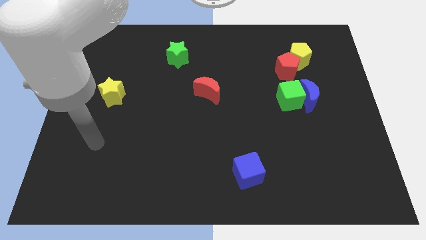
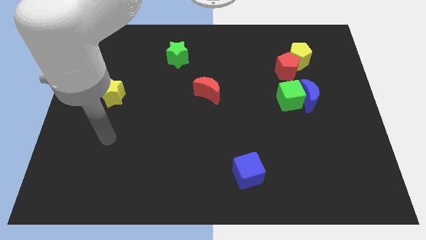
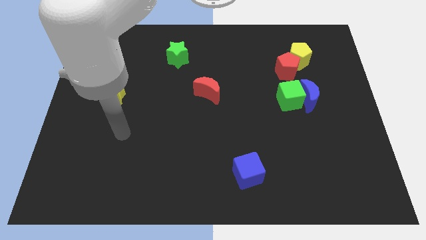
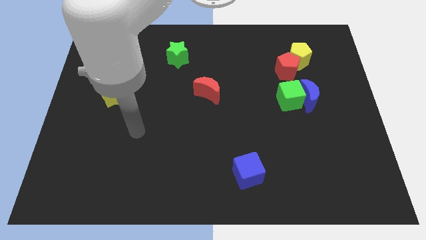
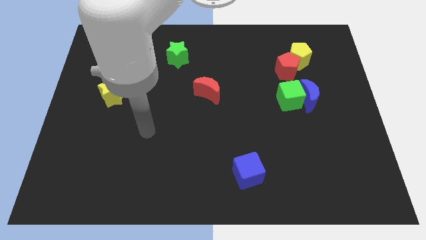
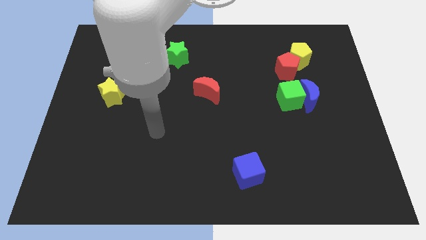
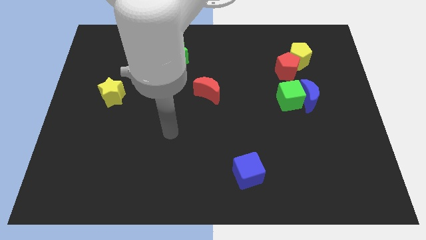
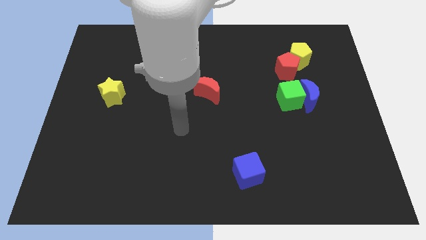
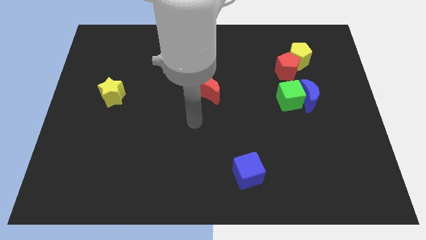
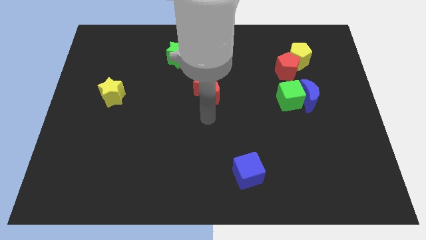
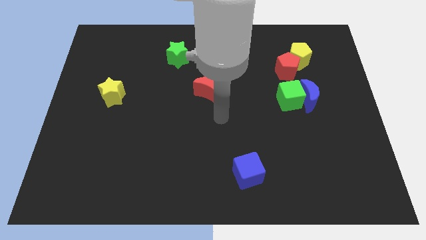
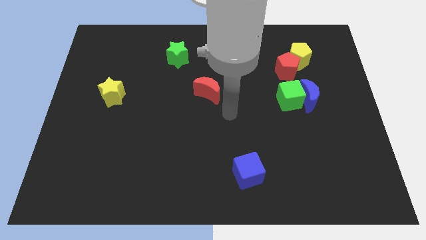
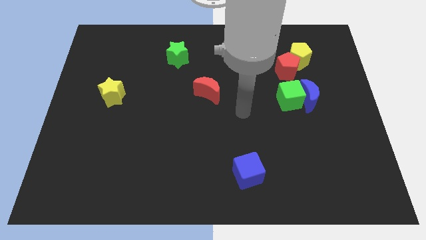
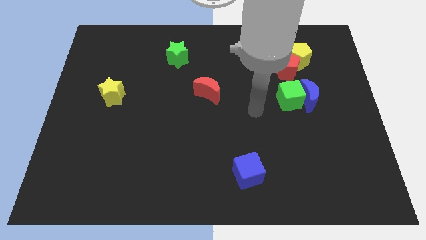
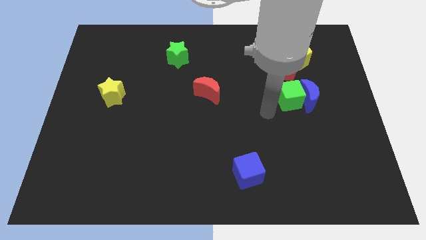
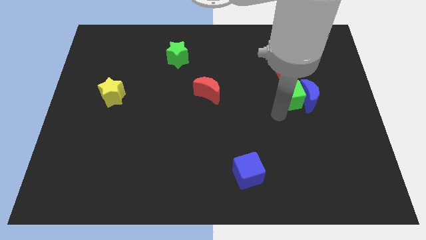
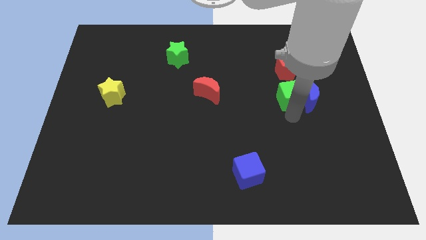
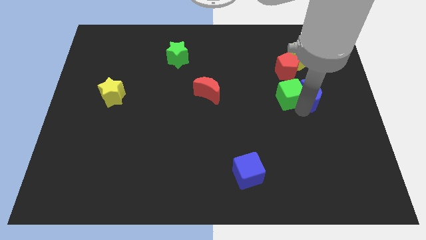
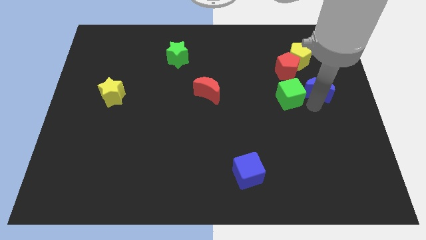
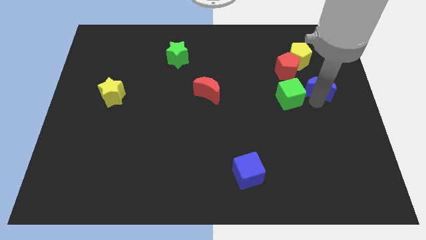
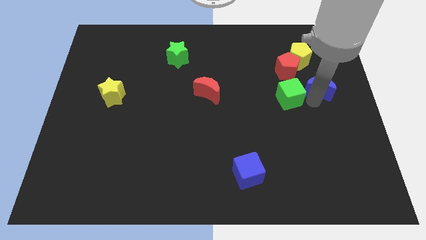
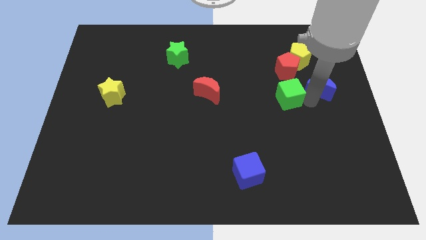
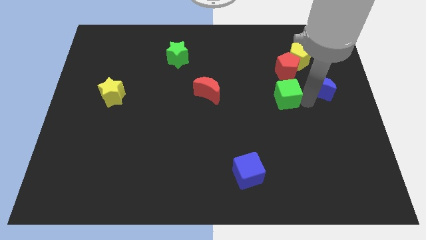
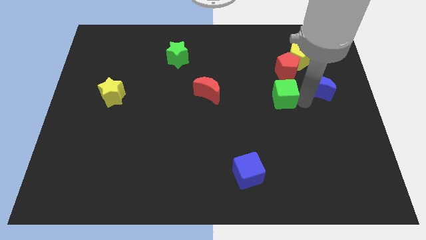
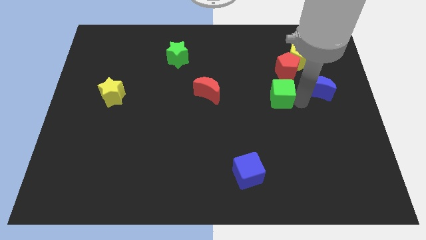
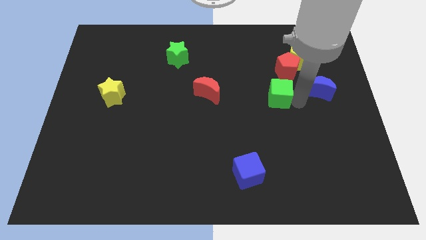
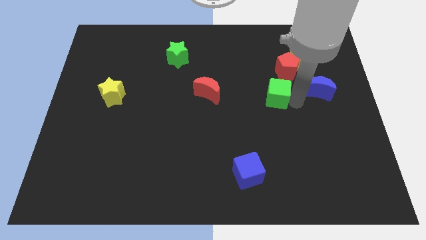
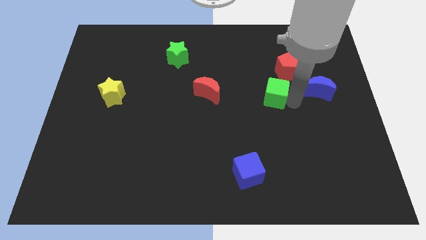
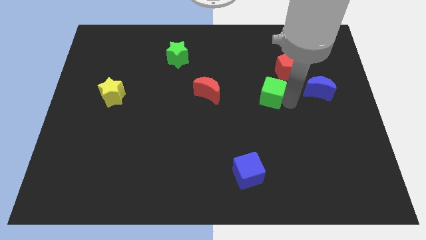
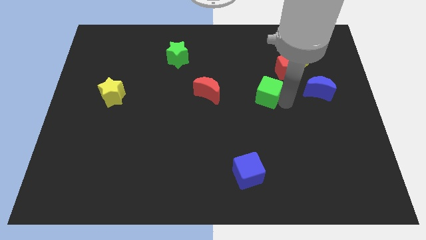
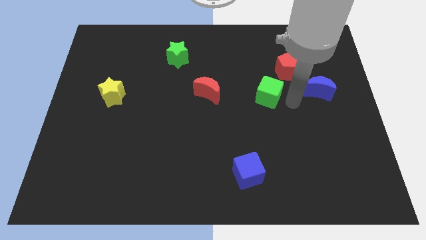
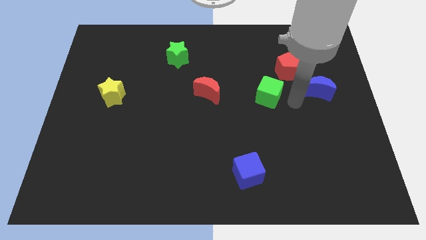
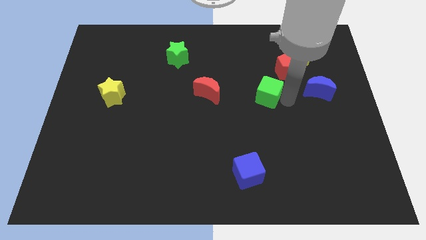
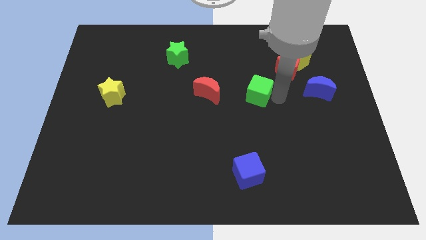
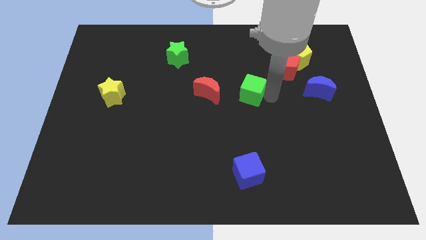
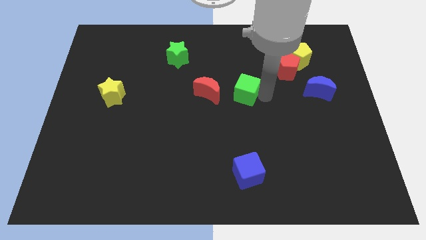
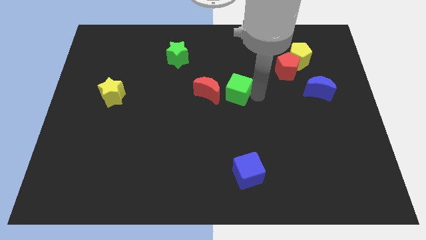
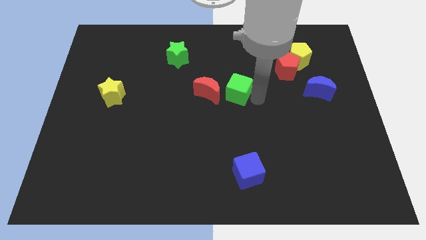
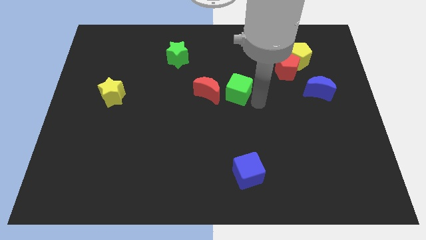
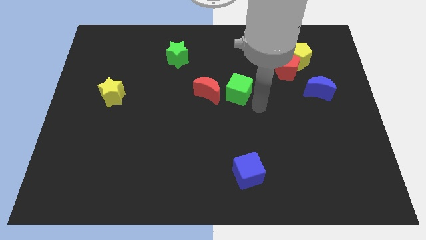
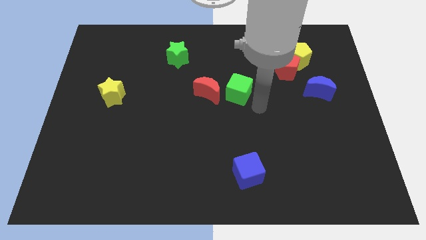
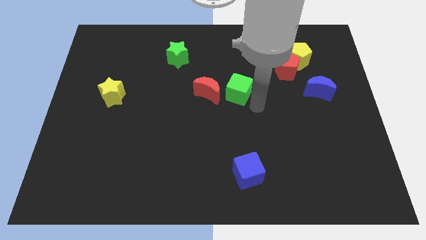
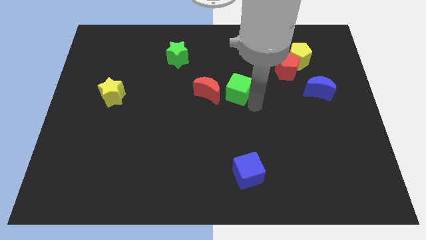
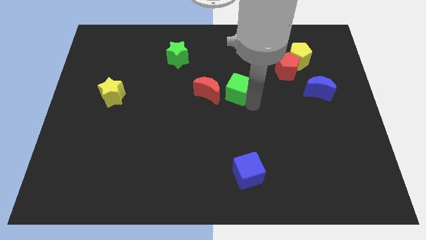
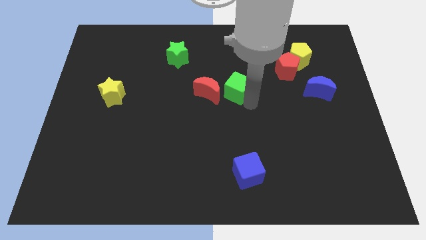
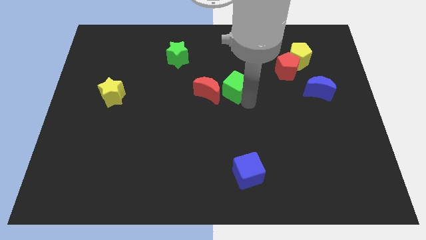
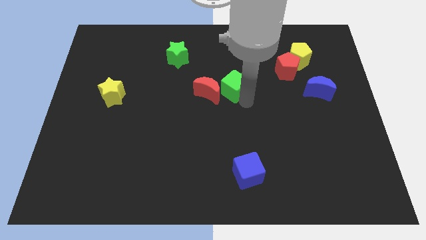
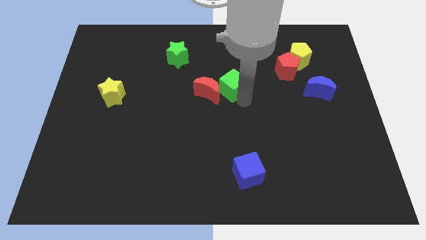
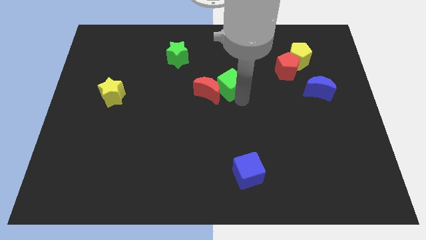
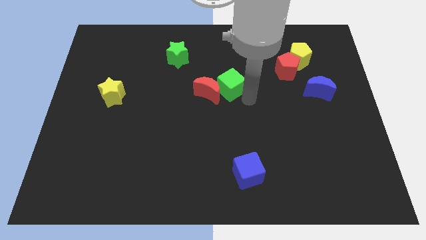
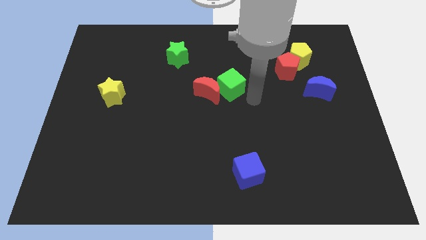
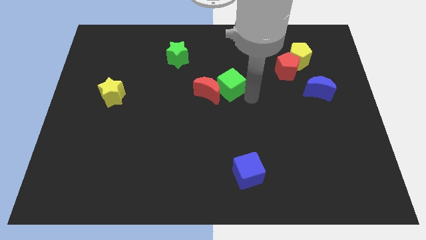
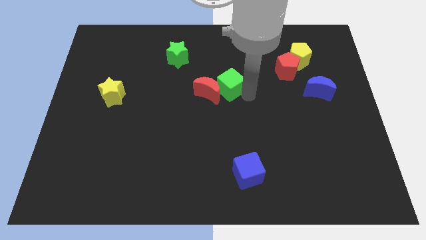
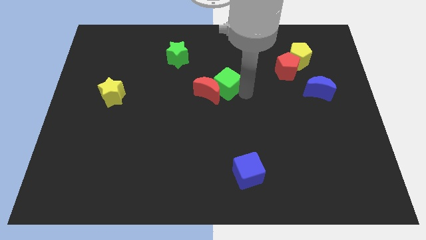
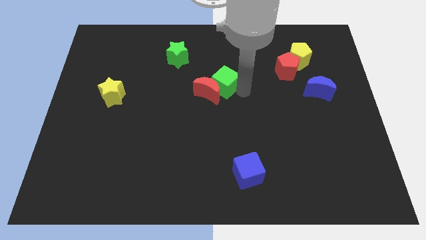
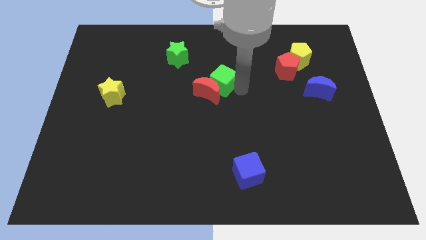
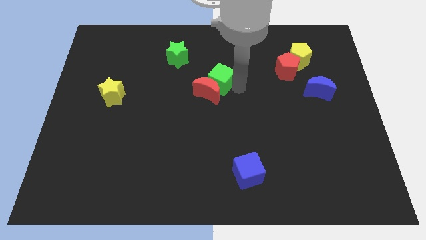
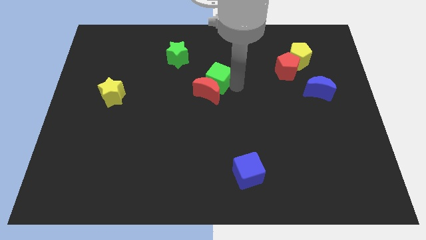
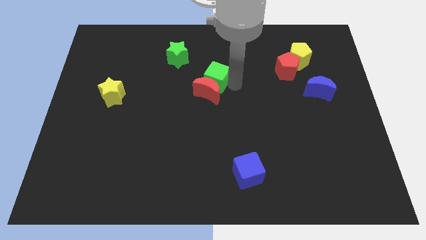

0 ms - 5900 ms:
push the green cube to the top left of the red moon

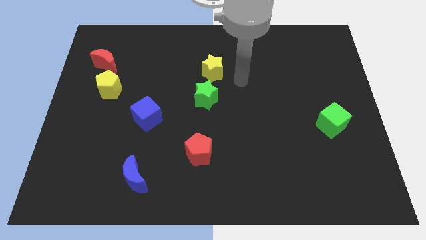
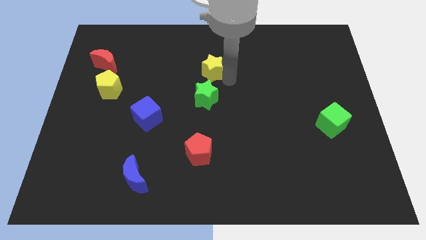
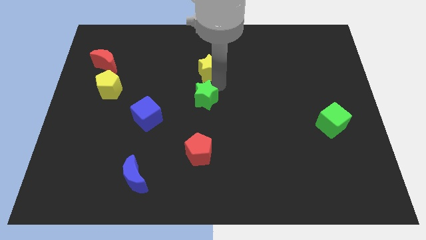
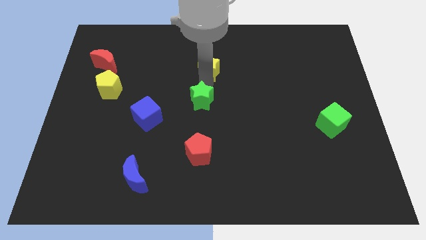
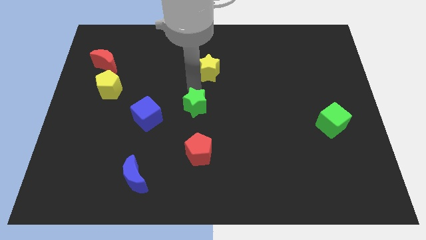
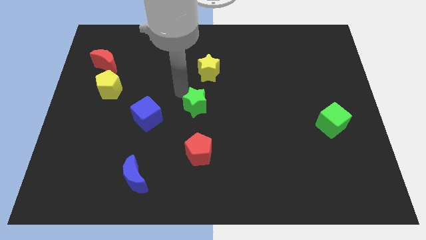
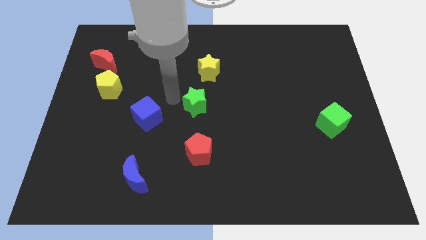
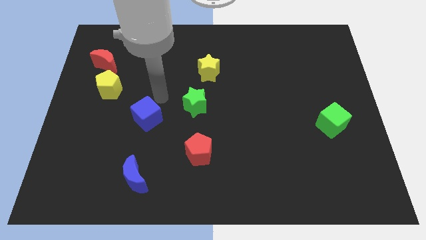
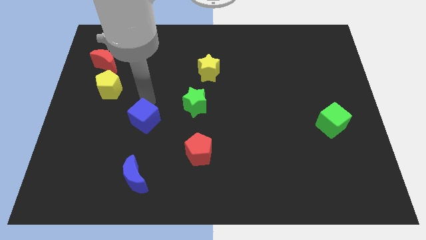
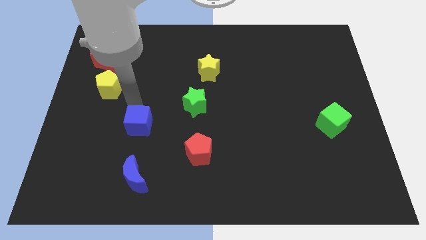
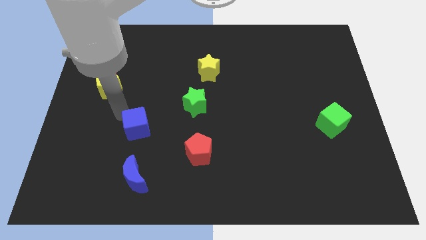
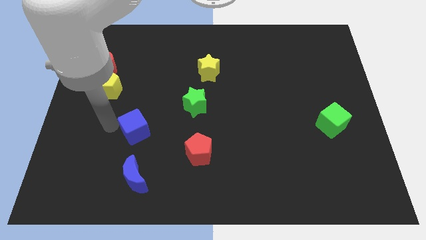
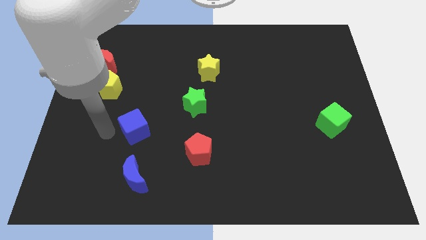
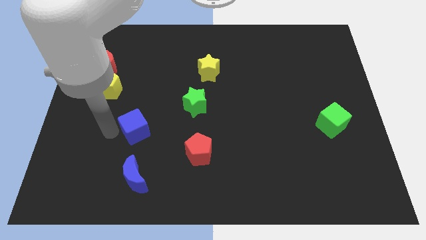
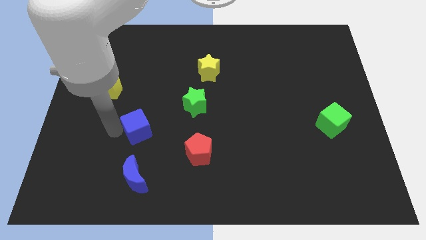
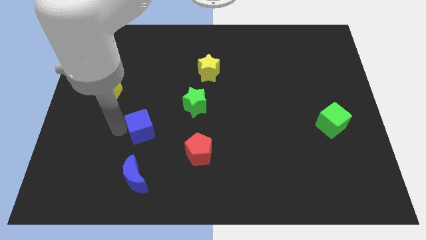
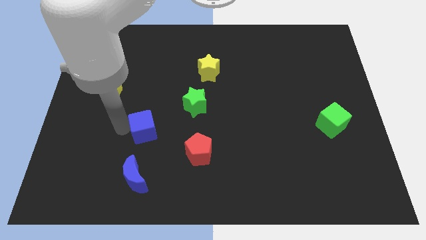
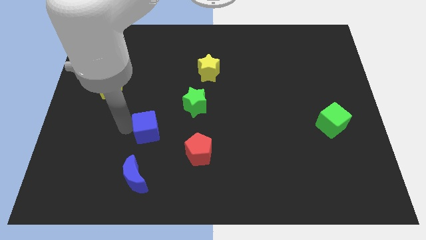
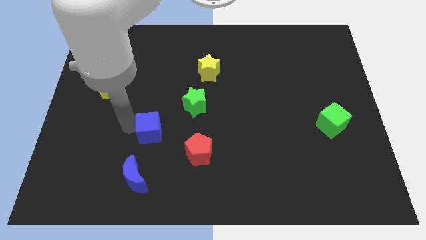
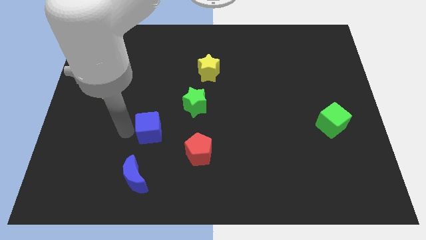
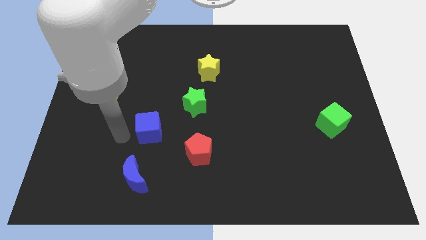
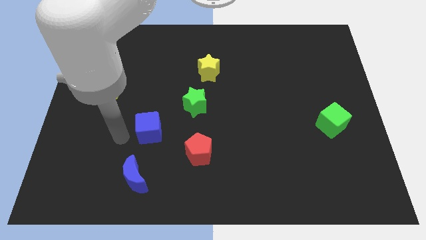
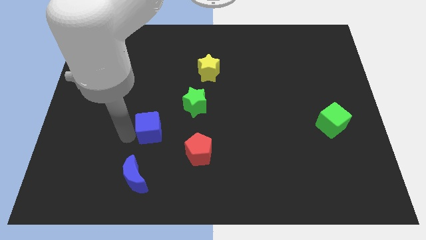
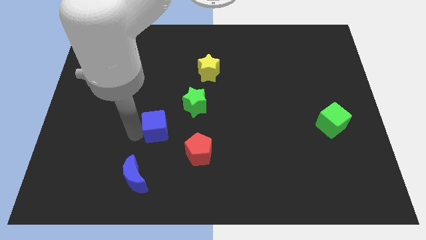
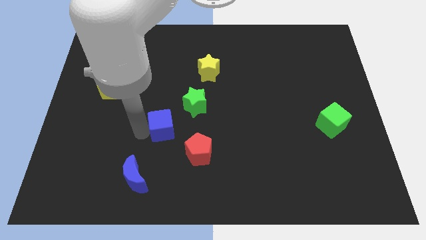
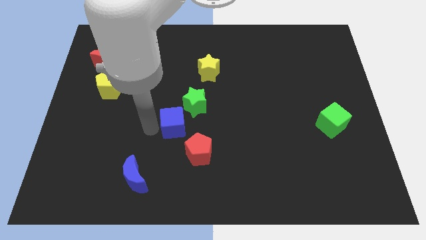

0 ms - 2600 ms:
move the blue cube to the bottom of the green star
